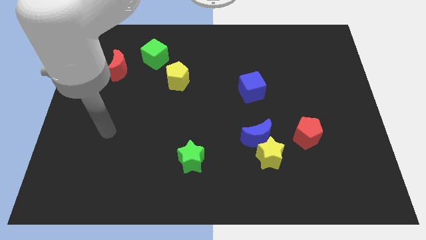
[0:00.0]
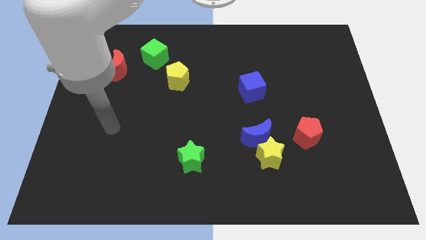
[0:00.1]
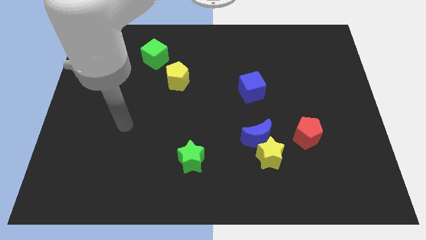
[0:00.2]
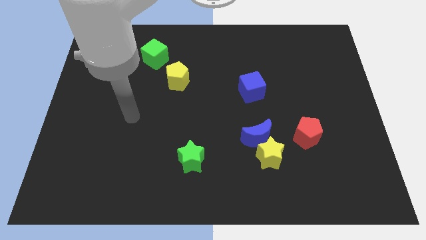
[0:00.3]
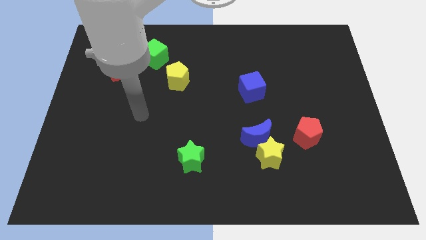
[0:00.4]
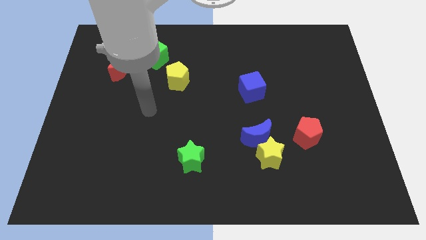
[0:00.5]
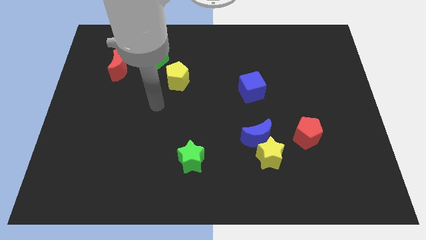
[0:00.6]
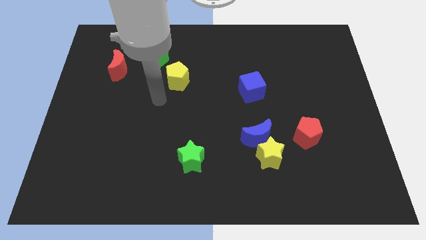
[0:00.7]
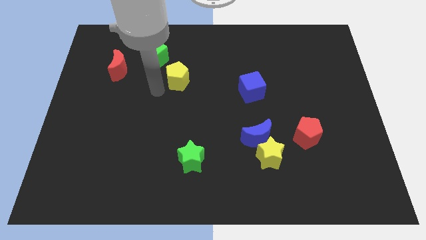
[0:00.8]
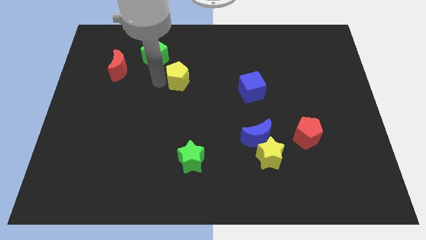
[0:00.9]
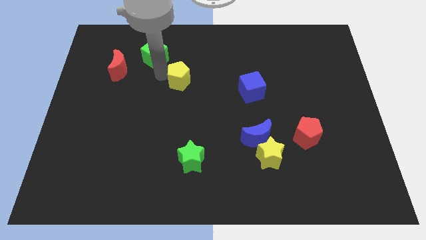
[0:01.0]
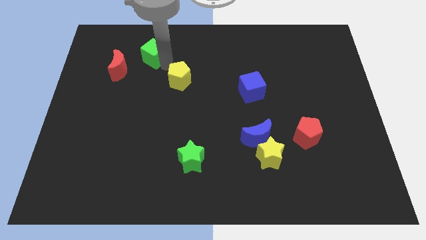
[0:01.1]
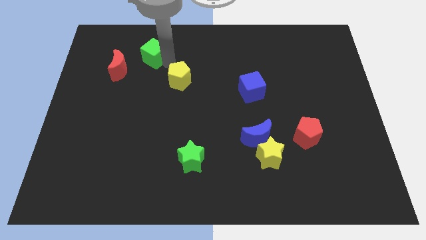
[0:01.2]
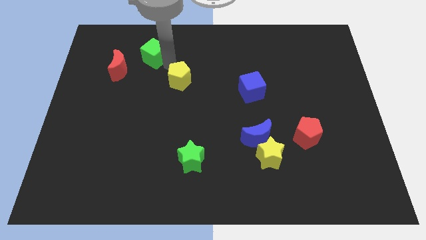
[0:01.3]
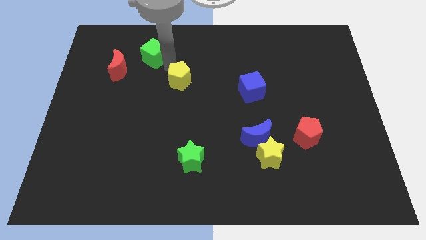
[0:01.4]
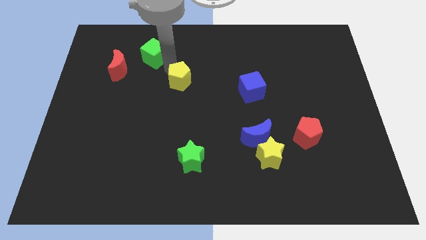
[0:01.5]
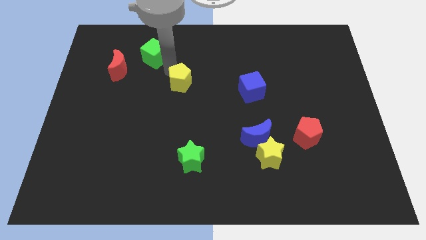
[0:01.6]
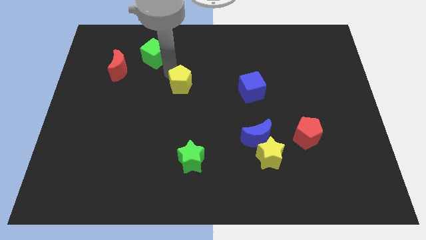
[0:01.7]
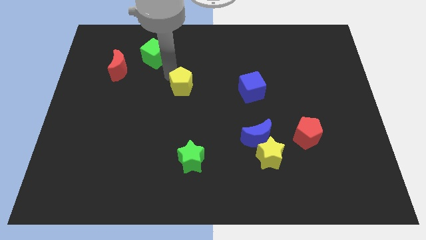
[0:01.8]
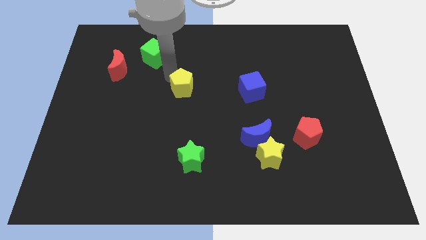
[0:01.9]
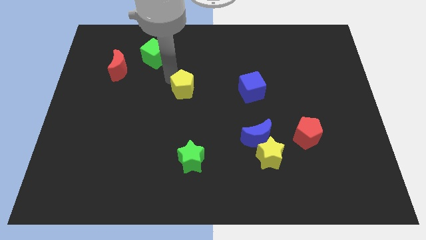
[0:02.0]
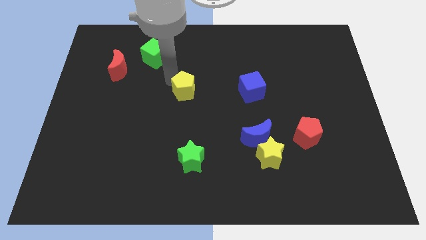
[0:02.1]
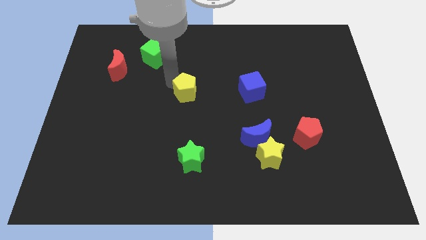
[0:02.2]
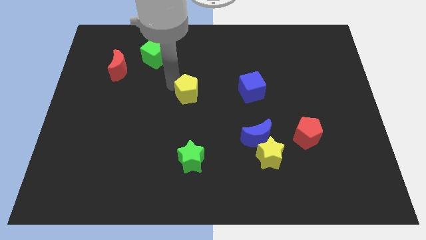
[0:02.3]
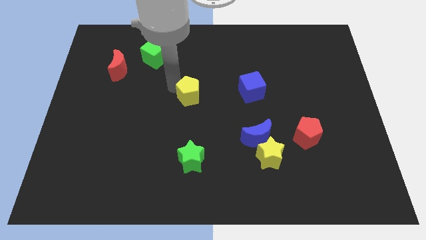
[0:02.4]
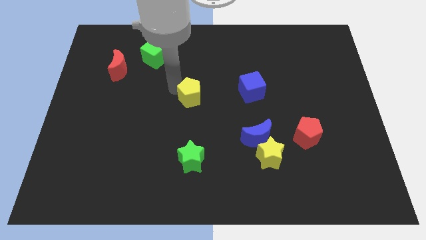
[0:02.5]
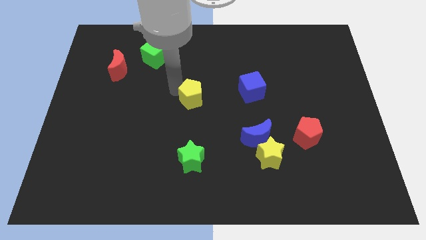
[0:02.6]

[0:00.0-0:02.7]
push the yellow pentagon downwards and right somewhat

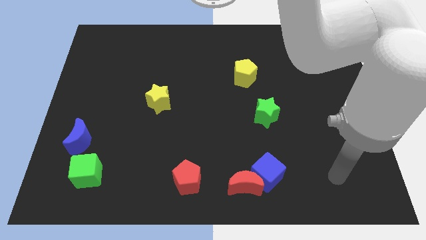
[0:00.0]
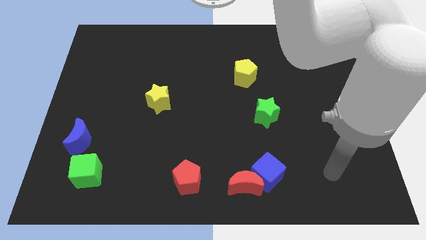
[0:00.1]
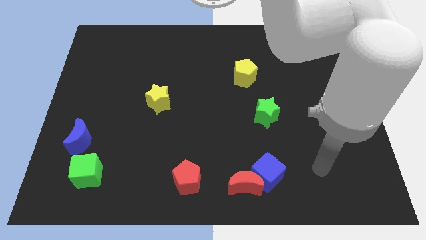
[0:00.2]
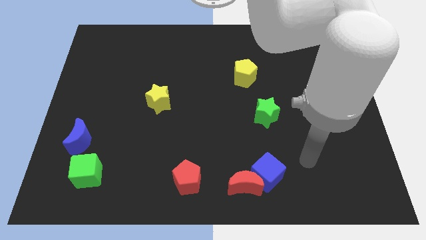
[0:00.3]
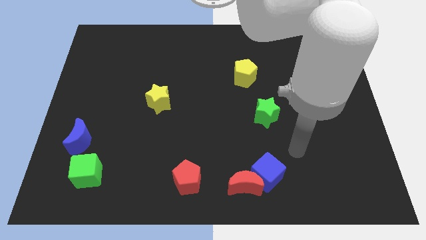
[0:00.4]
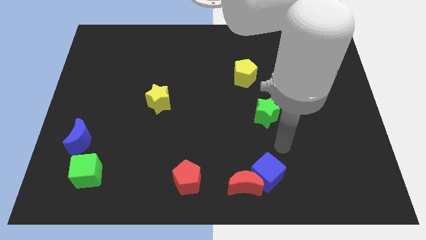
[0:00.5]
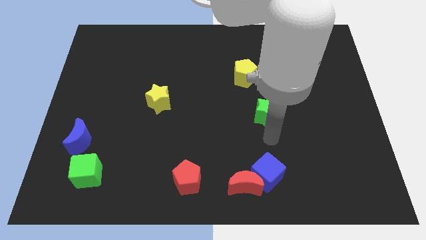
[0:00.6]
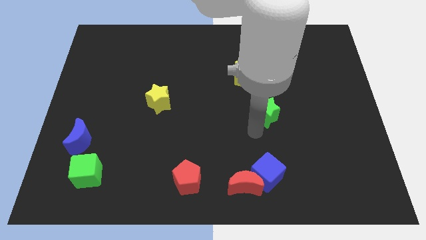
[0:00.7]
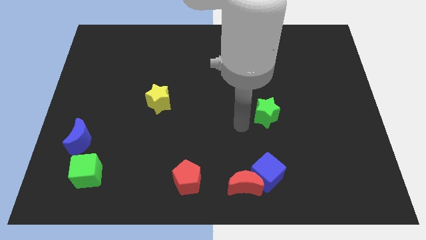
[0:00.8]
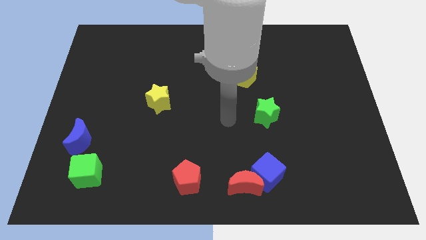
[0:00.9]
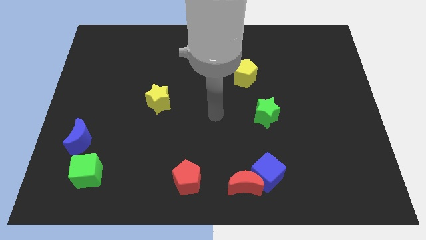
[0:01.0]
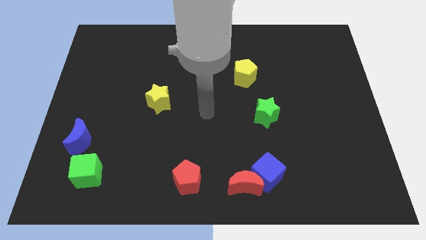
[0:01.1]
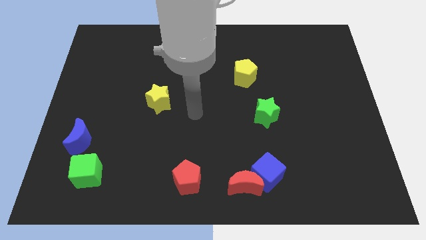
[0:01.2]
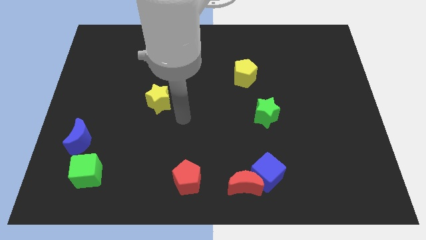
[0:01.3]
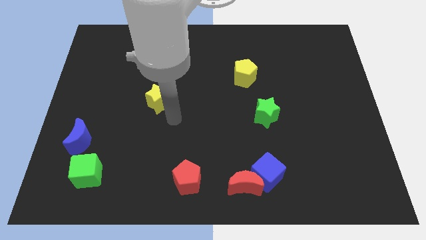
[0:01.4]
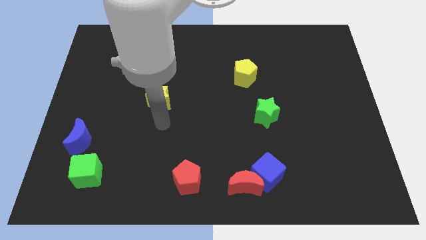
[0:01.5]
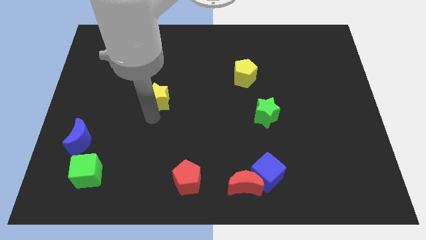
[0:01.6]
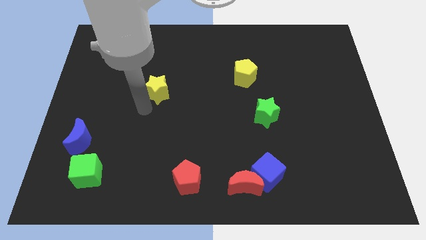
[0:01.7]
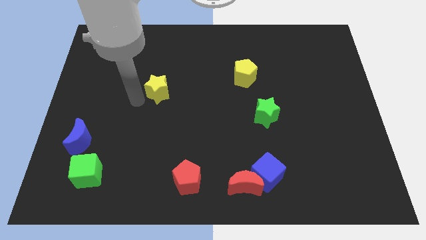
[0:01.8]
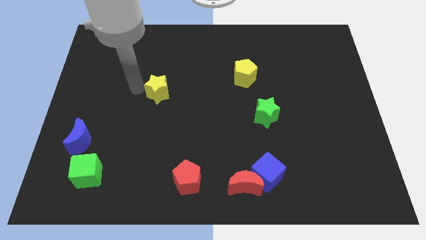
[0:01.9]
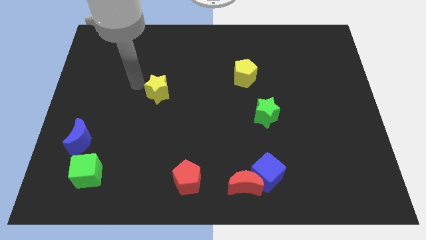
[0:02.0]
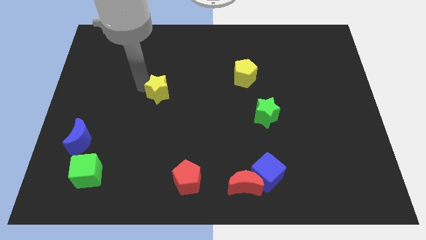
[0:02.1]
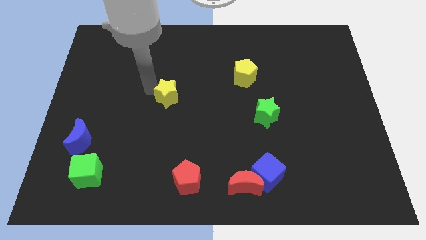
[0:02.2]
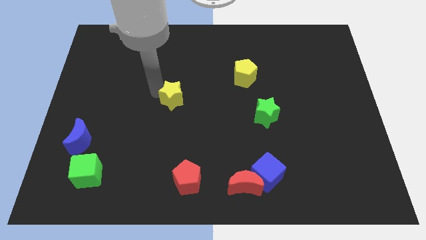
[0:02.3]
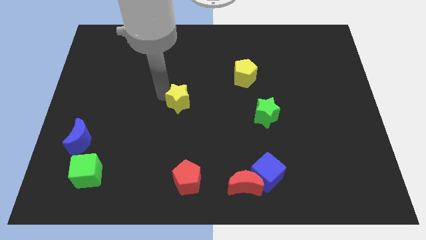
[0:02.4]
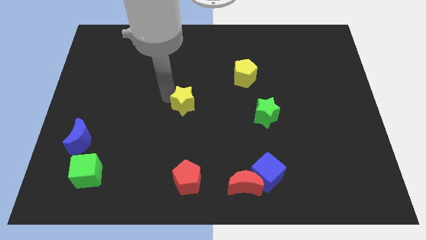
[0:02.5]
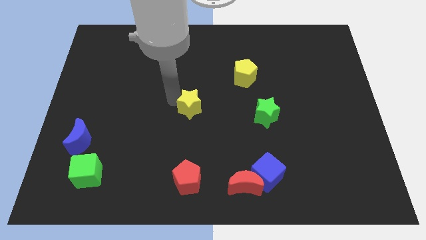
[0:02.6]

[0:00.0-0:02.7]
slide the yellow star a little to the right

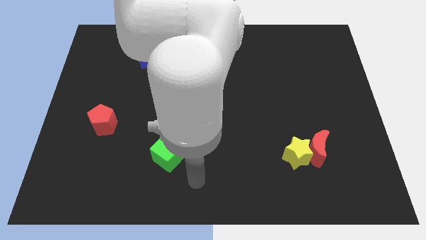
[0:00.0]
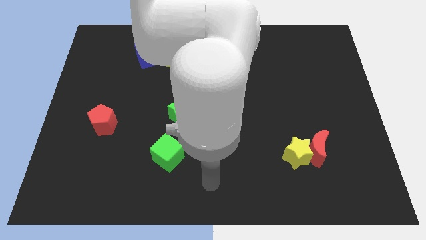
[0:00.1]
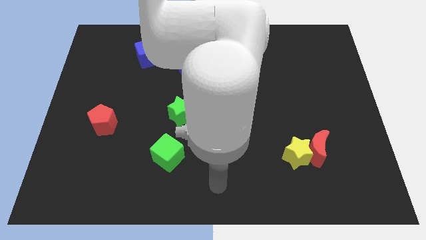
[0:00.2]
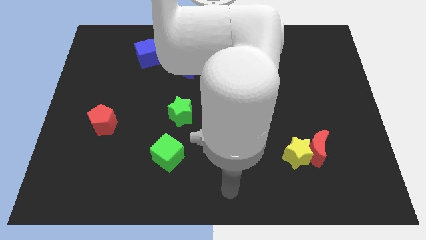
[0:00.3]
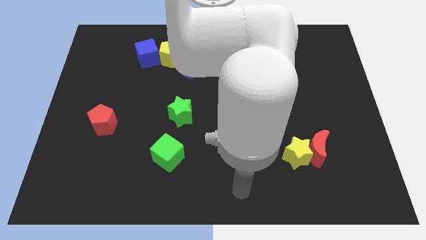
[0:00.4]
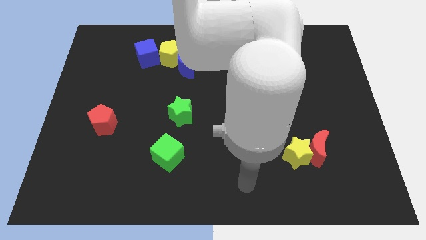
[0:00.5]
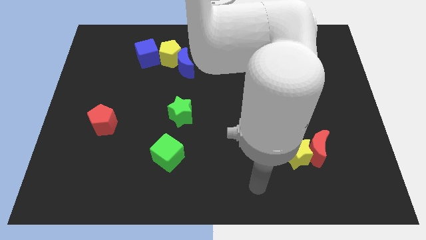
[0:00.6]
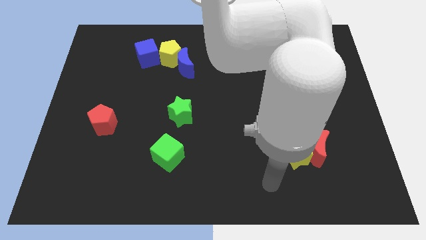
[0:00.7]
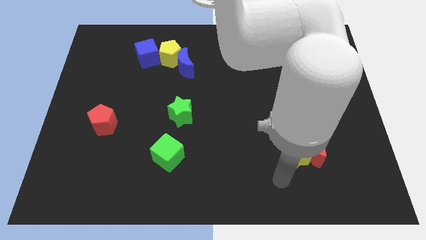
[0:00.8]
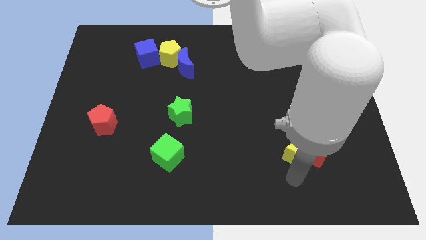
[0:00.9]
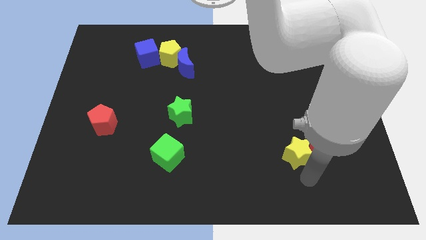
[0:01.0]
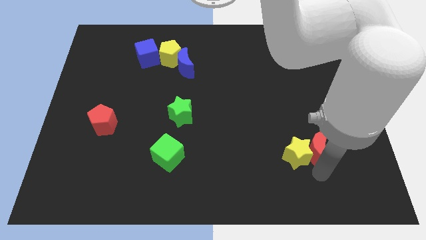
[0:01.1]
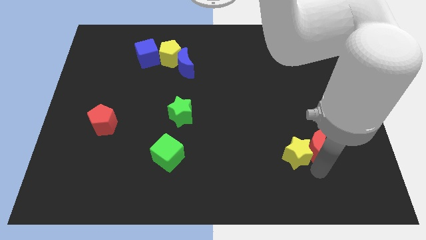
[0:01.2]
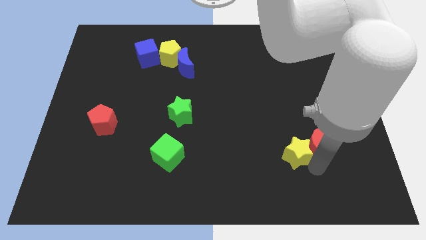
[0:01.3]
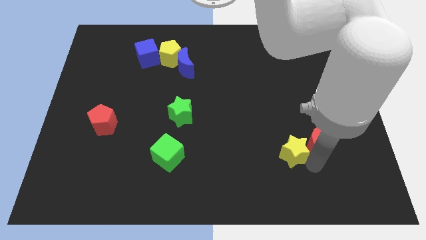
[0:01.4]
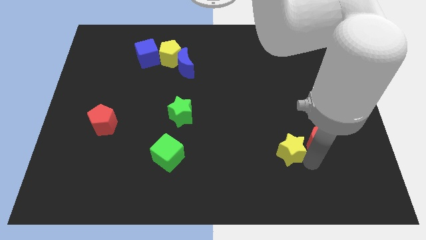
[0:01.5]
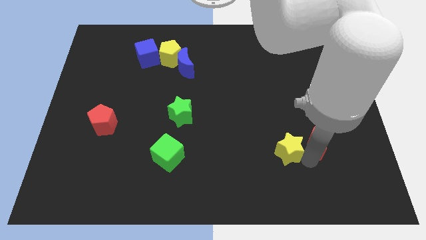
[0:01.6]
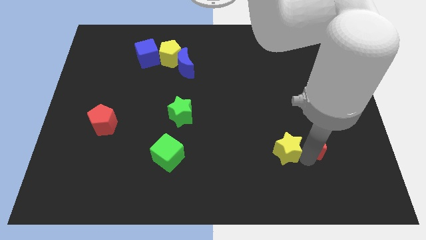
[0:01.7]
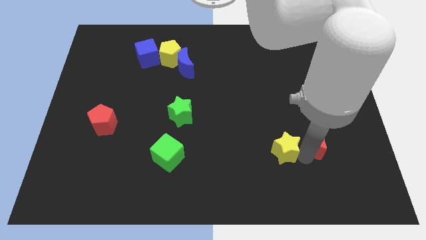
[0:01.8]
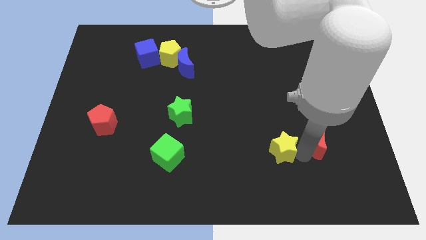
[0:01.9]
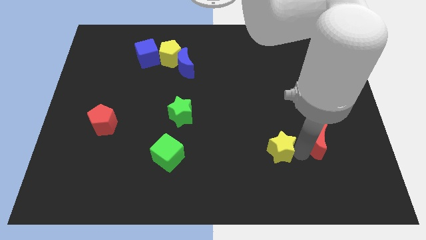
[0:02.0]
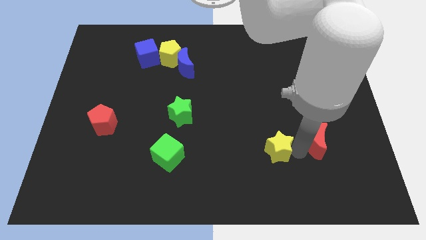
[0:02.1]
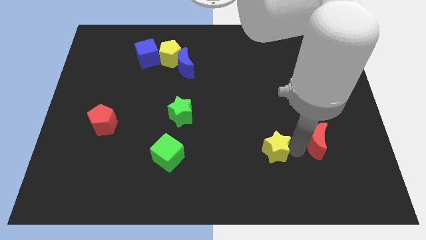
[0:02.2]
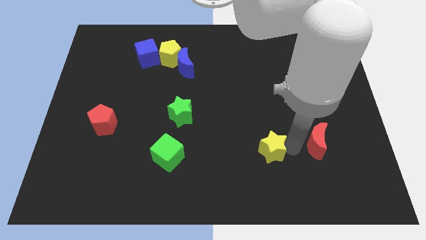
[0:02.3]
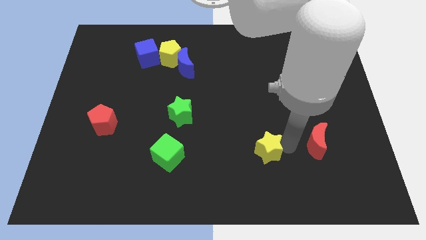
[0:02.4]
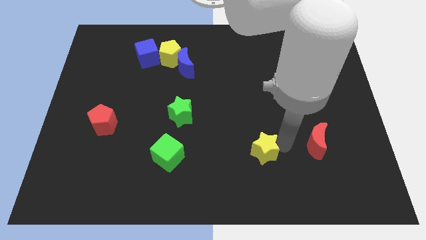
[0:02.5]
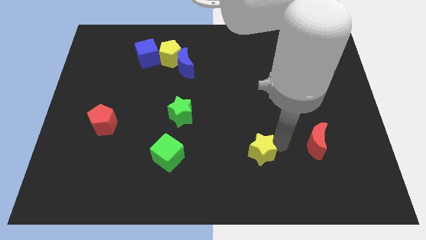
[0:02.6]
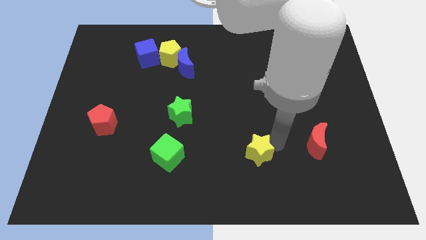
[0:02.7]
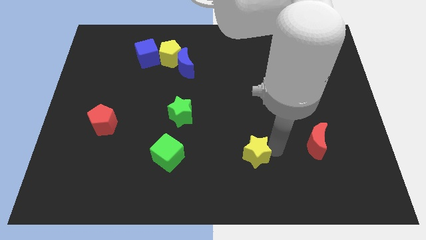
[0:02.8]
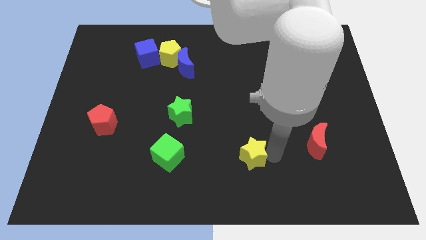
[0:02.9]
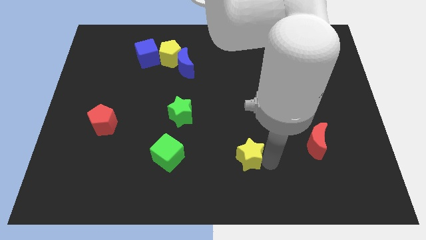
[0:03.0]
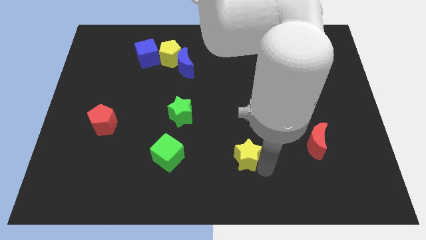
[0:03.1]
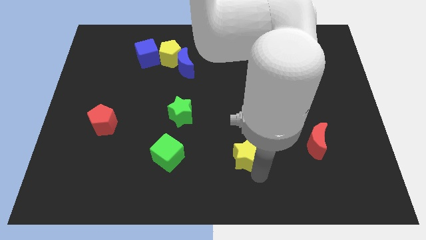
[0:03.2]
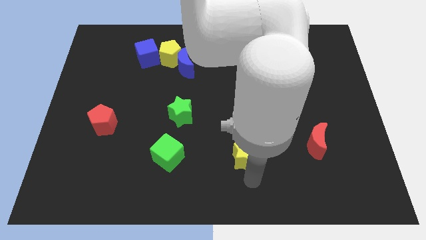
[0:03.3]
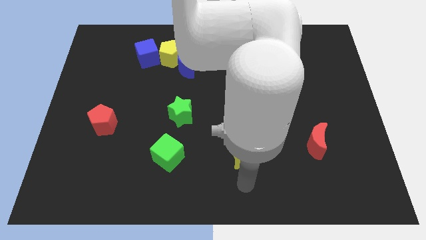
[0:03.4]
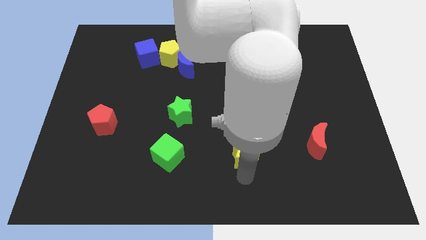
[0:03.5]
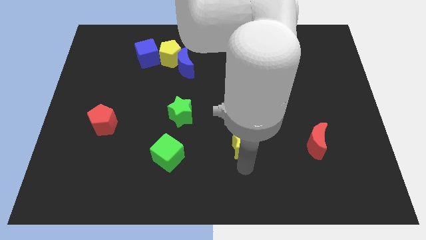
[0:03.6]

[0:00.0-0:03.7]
push the yellow star upwards and left diagonally a bit
